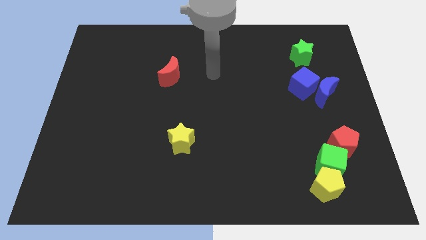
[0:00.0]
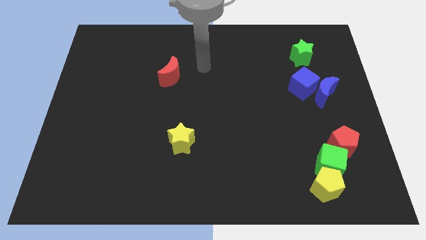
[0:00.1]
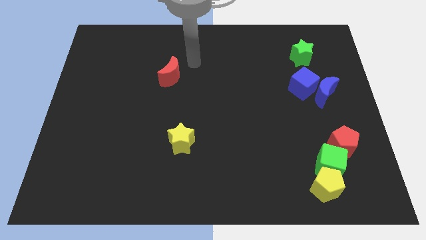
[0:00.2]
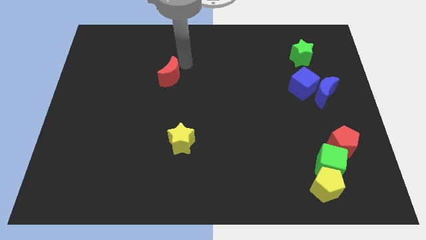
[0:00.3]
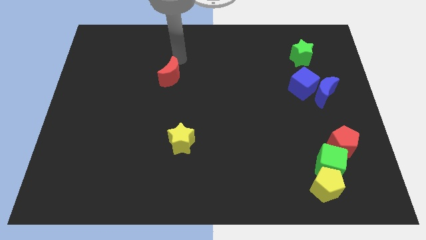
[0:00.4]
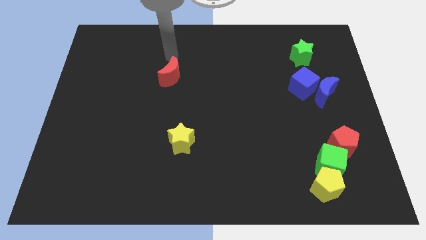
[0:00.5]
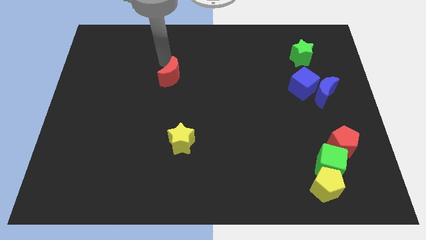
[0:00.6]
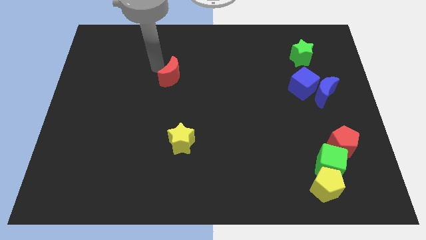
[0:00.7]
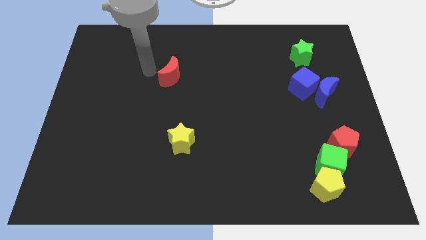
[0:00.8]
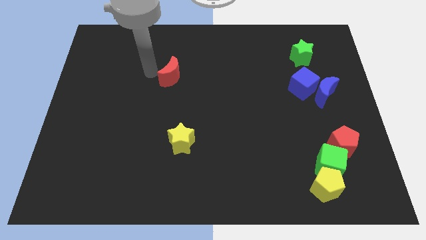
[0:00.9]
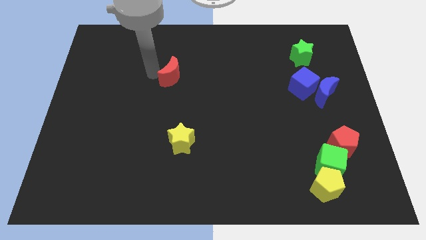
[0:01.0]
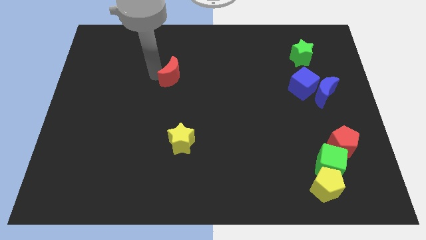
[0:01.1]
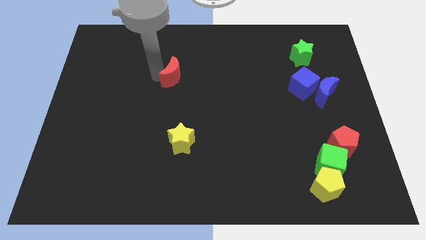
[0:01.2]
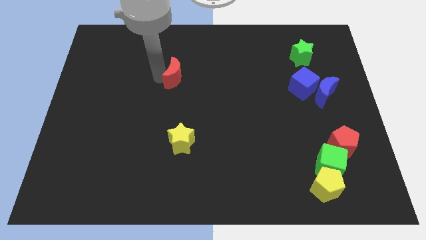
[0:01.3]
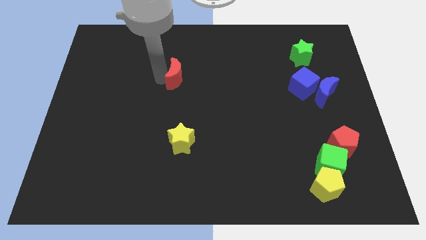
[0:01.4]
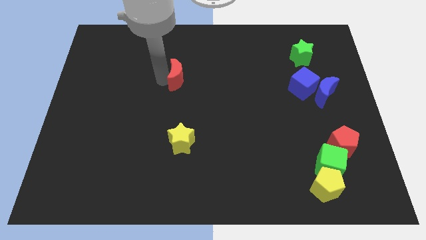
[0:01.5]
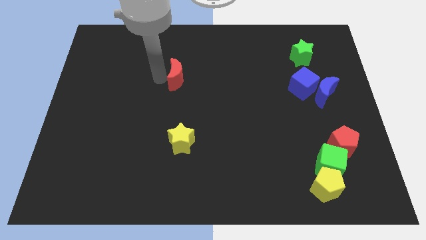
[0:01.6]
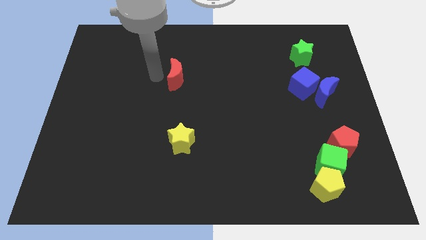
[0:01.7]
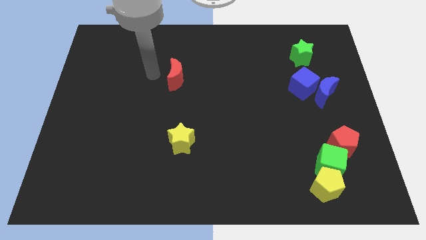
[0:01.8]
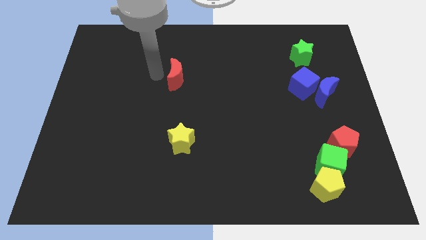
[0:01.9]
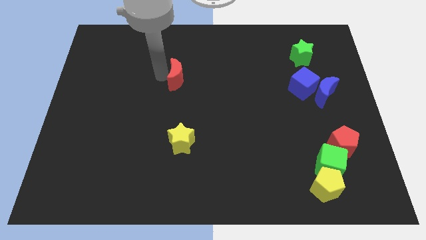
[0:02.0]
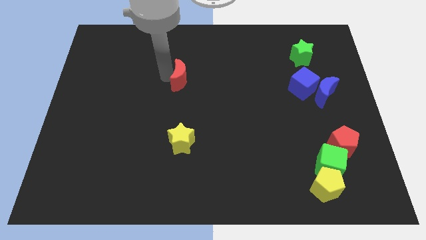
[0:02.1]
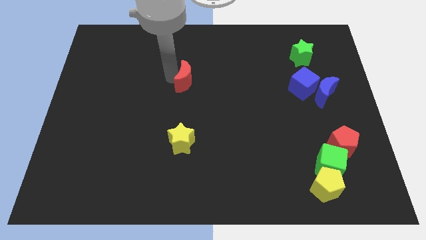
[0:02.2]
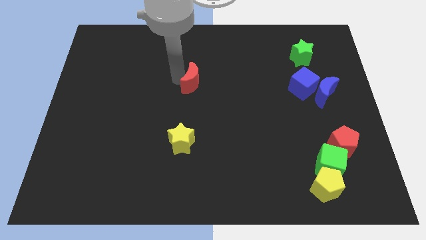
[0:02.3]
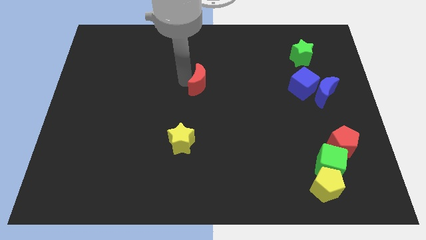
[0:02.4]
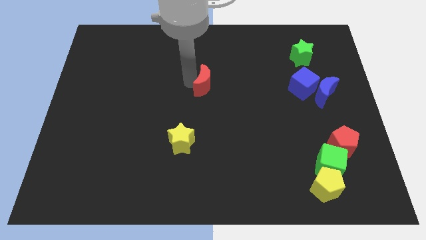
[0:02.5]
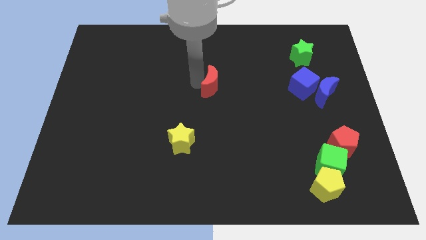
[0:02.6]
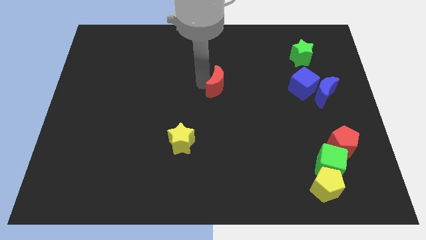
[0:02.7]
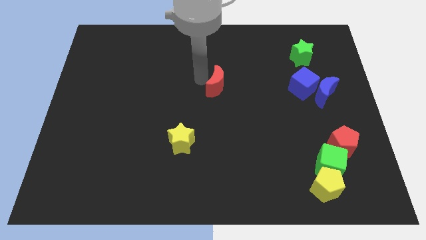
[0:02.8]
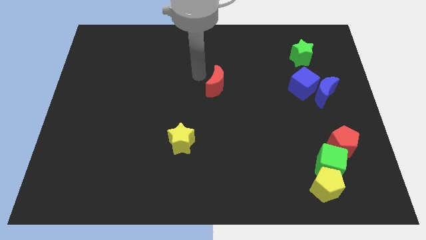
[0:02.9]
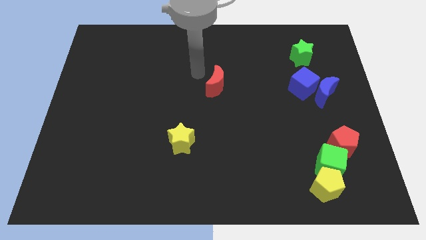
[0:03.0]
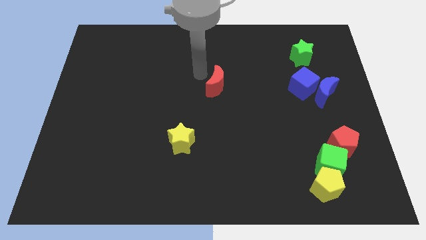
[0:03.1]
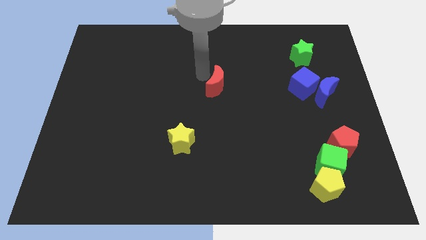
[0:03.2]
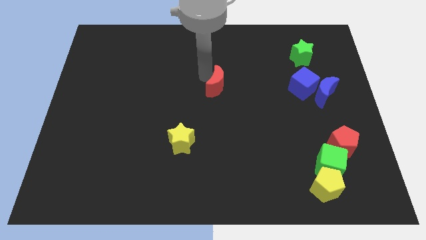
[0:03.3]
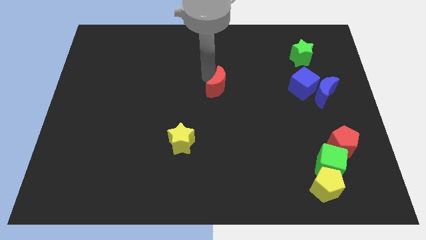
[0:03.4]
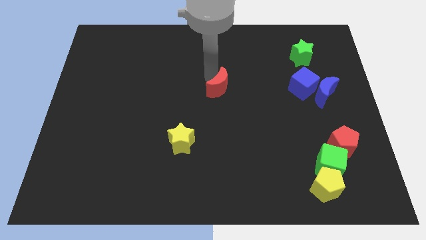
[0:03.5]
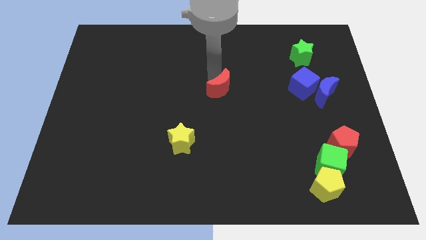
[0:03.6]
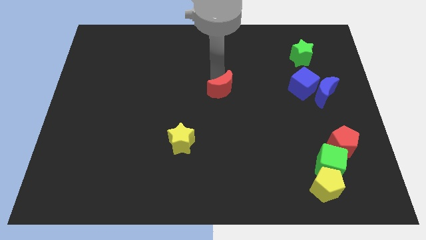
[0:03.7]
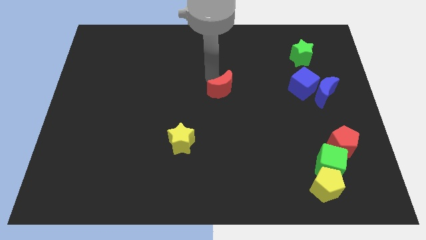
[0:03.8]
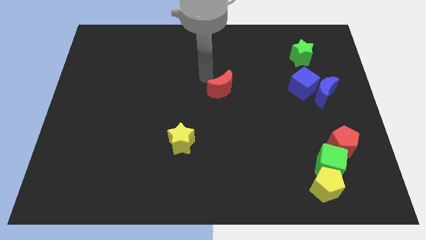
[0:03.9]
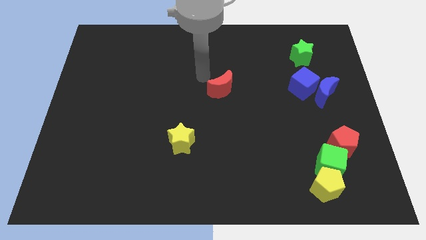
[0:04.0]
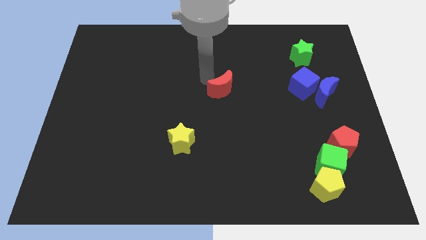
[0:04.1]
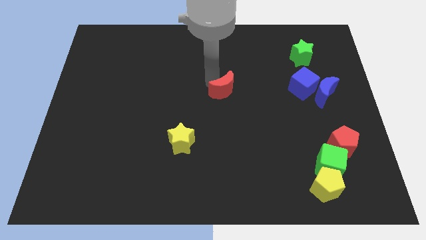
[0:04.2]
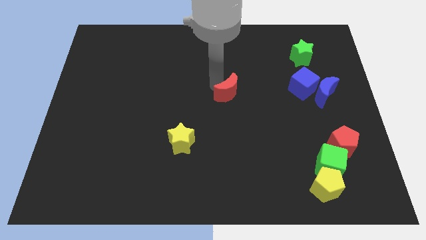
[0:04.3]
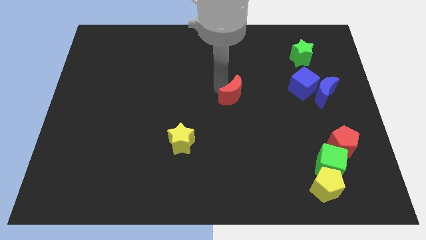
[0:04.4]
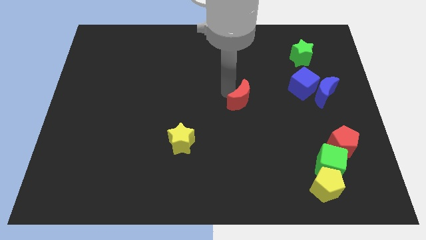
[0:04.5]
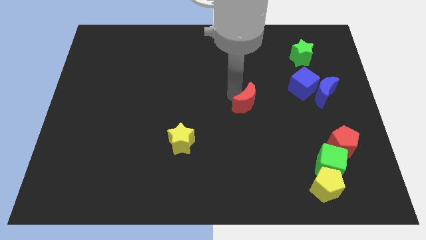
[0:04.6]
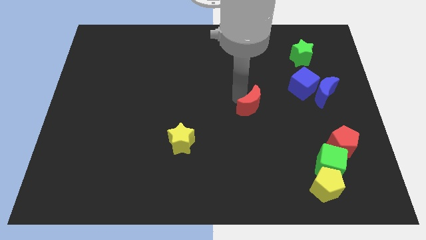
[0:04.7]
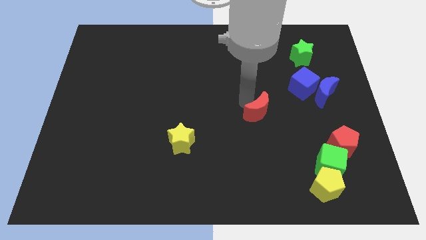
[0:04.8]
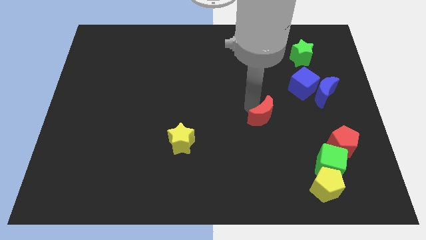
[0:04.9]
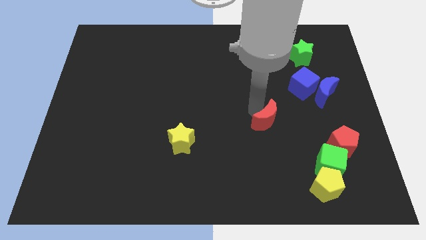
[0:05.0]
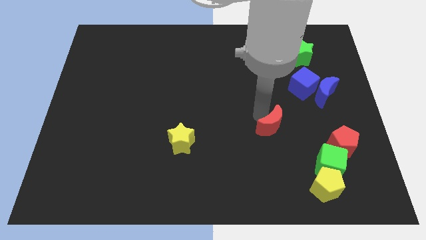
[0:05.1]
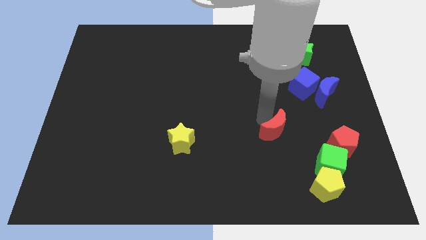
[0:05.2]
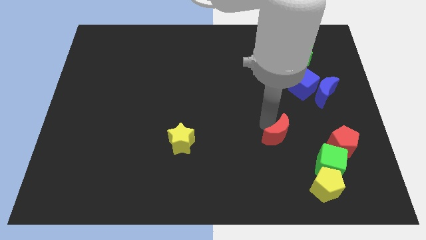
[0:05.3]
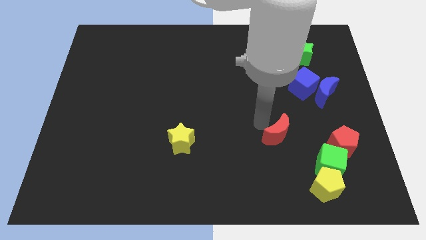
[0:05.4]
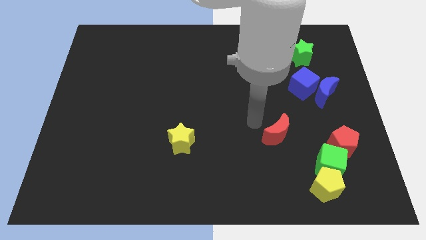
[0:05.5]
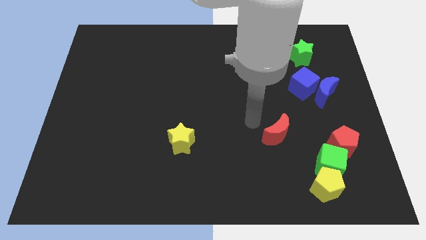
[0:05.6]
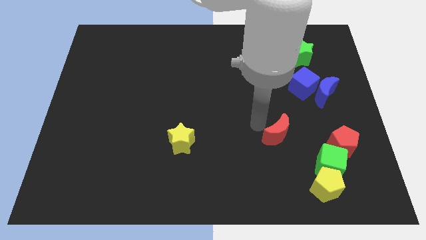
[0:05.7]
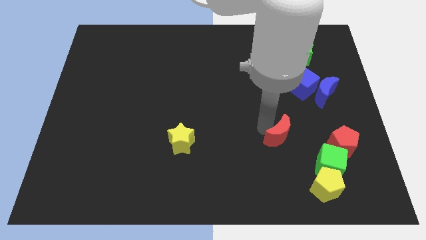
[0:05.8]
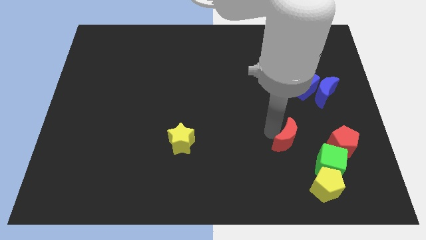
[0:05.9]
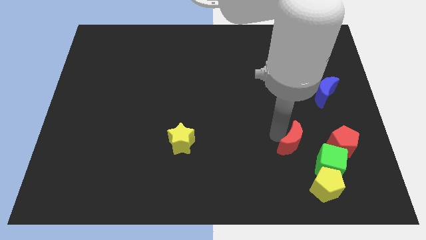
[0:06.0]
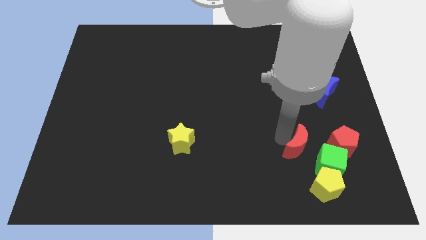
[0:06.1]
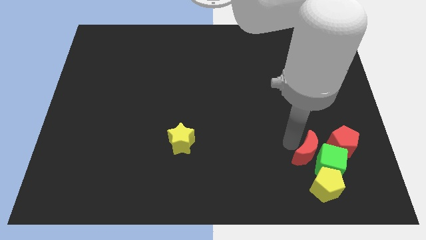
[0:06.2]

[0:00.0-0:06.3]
slide the red moon close to the green cube

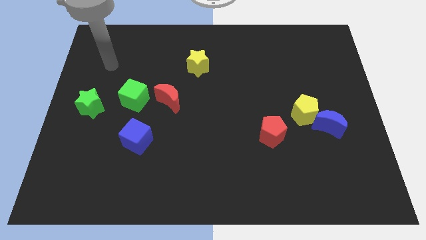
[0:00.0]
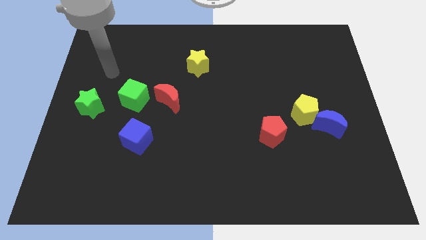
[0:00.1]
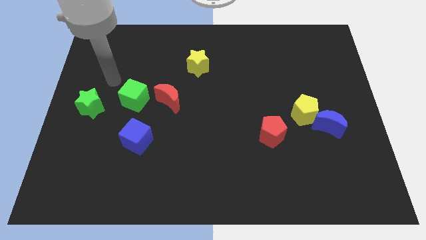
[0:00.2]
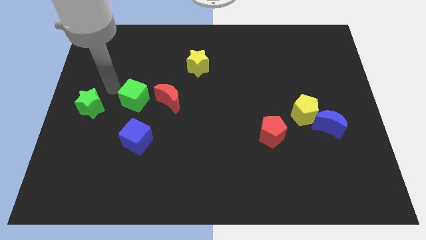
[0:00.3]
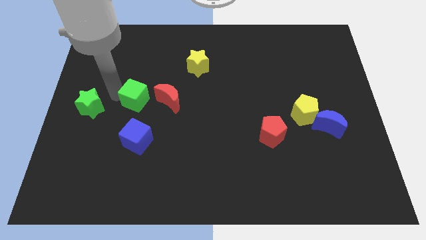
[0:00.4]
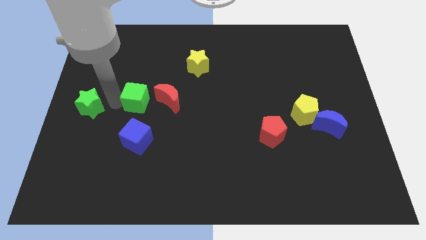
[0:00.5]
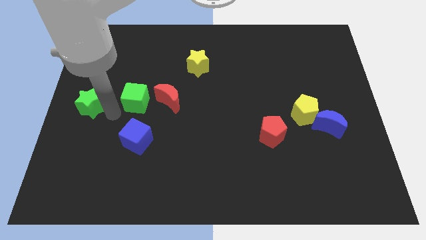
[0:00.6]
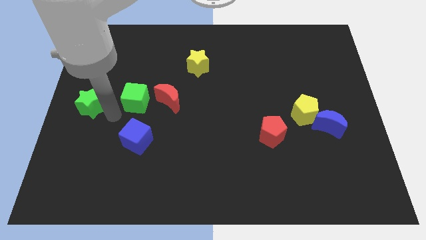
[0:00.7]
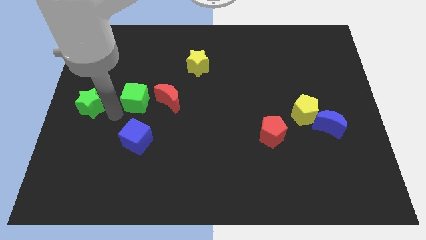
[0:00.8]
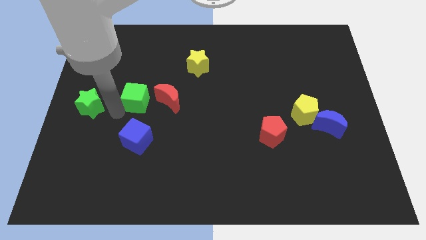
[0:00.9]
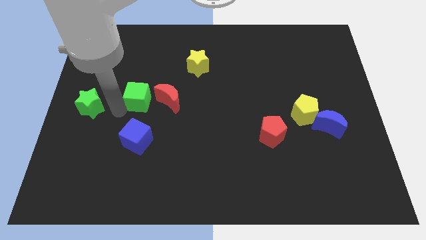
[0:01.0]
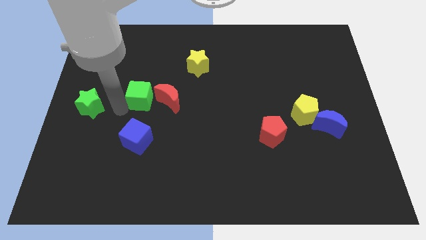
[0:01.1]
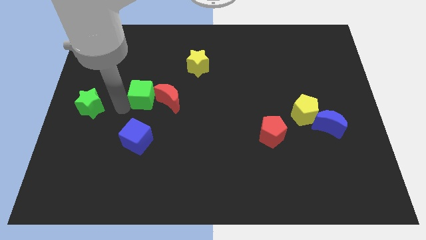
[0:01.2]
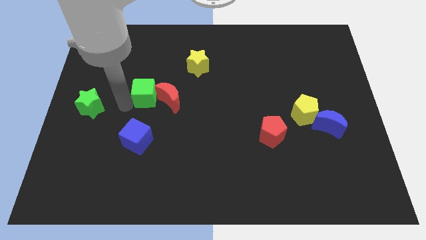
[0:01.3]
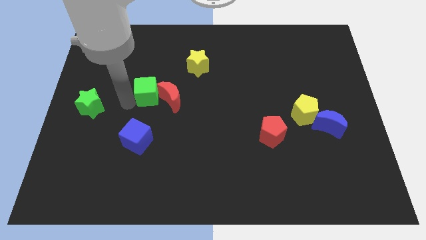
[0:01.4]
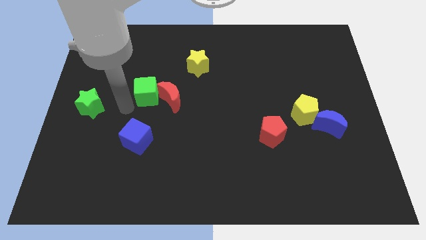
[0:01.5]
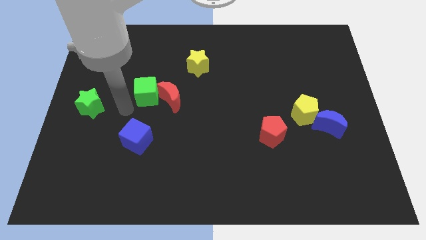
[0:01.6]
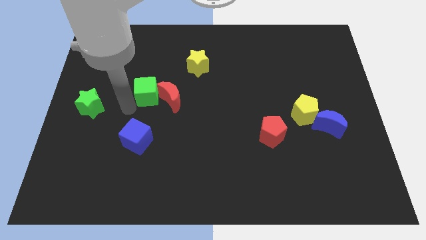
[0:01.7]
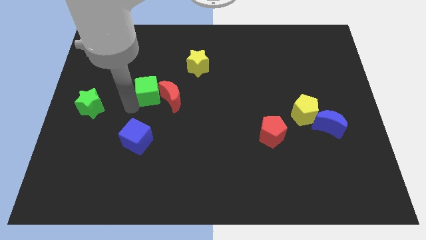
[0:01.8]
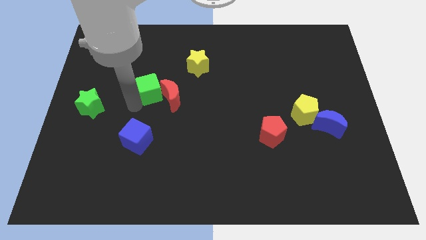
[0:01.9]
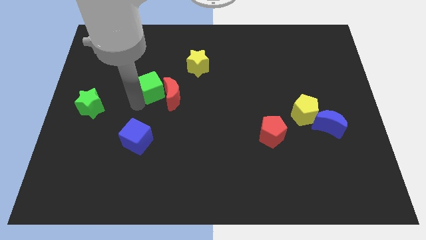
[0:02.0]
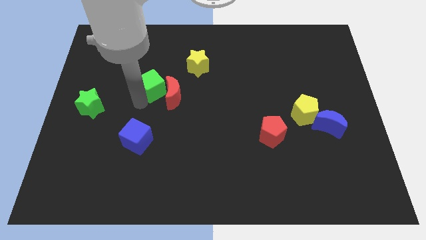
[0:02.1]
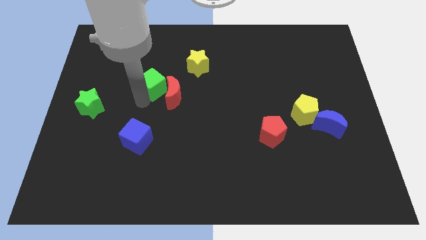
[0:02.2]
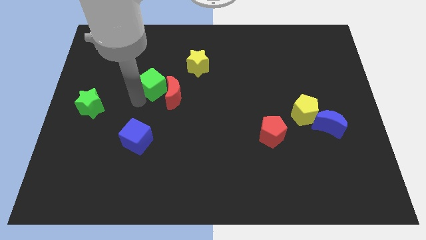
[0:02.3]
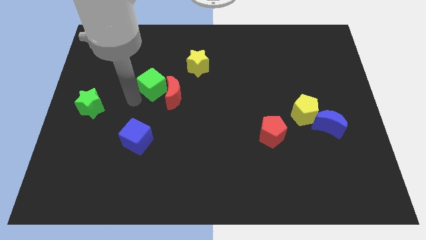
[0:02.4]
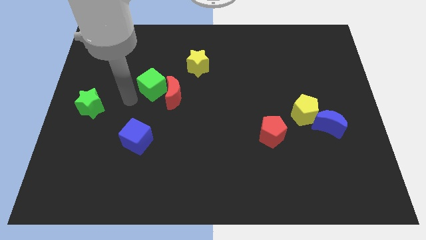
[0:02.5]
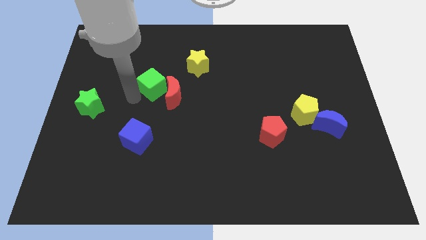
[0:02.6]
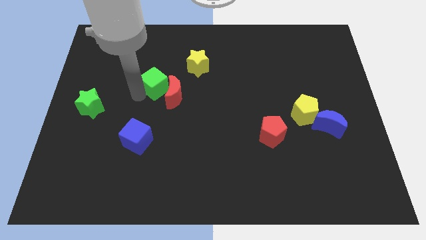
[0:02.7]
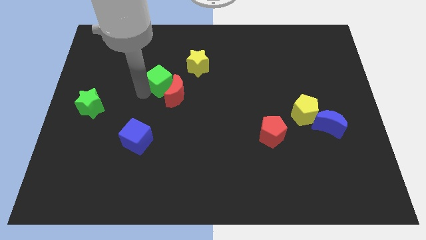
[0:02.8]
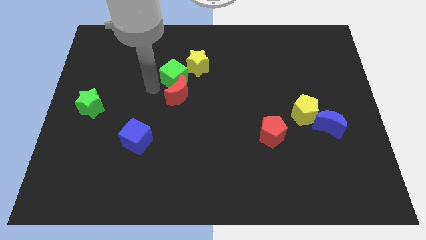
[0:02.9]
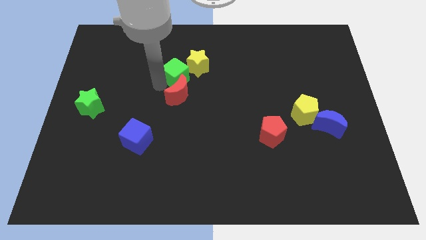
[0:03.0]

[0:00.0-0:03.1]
move the green cube next to the yellow star
